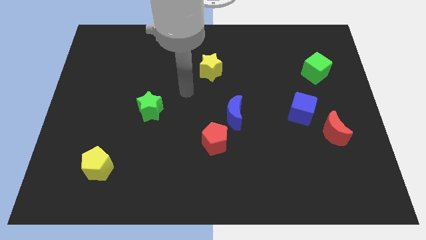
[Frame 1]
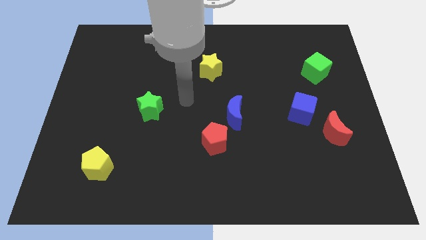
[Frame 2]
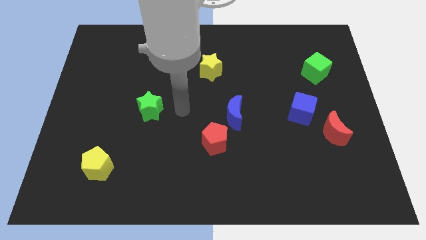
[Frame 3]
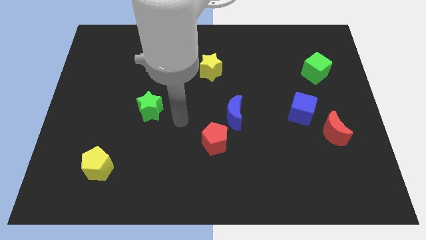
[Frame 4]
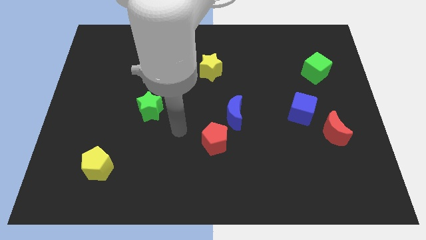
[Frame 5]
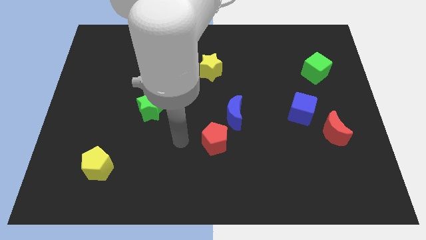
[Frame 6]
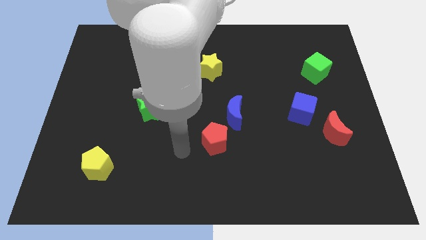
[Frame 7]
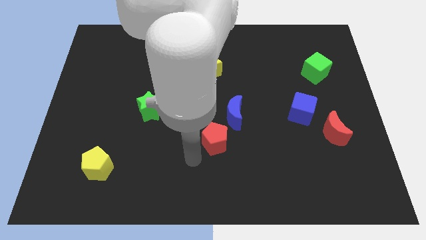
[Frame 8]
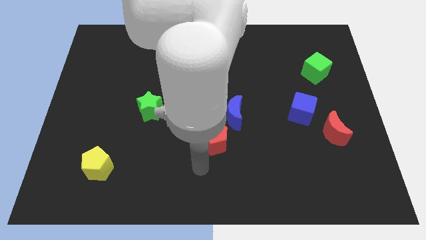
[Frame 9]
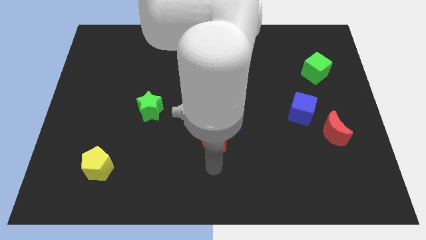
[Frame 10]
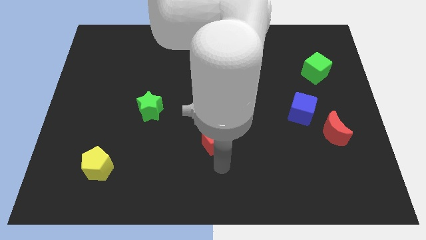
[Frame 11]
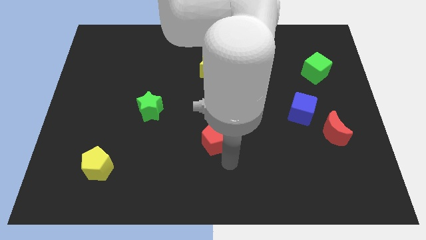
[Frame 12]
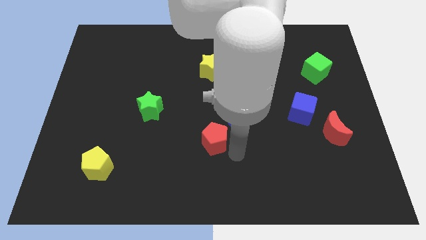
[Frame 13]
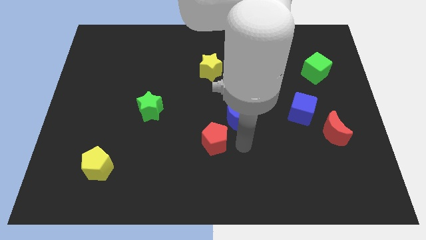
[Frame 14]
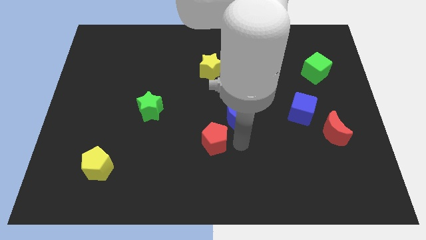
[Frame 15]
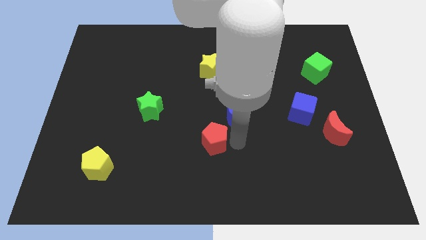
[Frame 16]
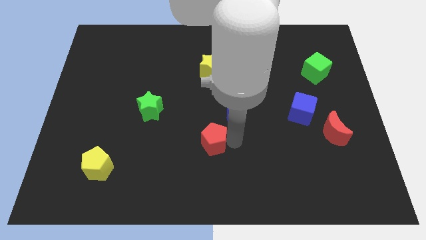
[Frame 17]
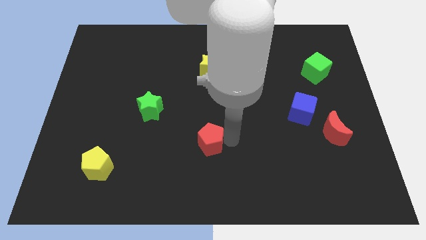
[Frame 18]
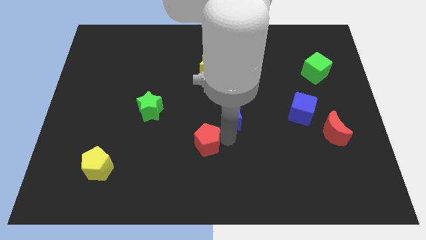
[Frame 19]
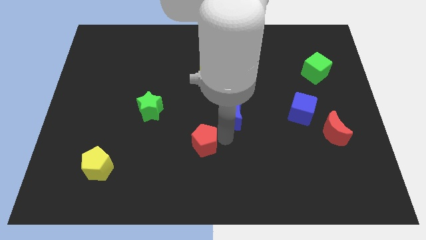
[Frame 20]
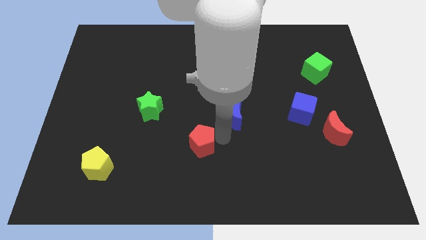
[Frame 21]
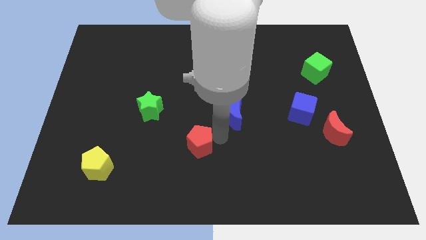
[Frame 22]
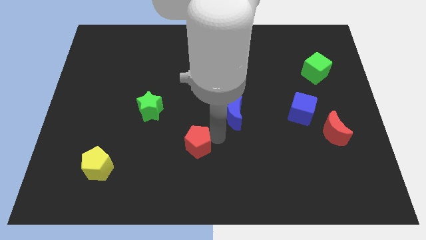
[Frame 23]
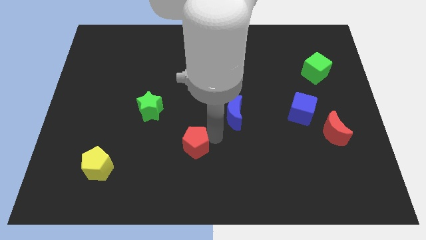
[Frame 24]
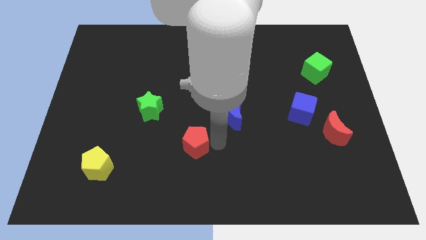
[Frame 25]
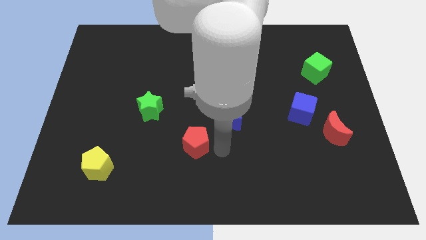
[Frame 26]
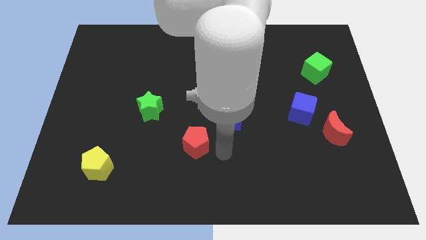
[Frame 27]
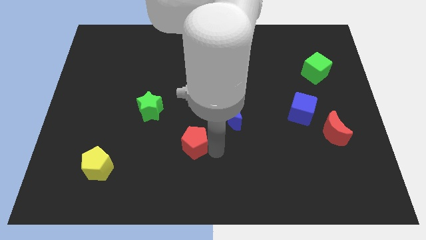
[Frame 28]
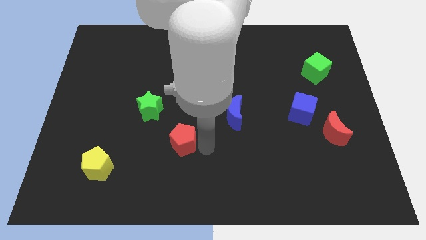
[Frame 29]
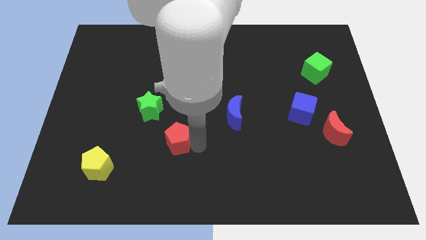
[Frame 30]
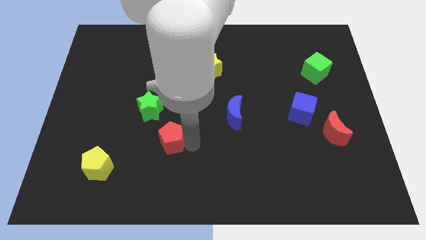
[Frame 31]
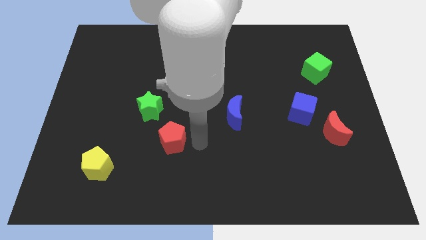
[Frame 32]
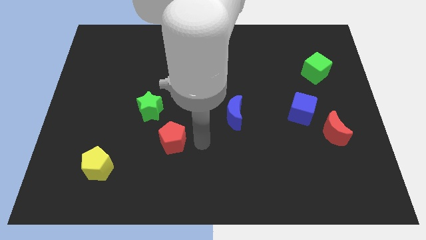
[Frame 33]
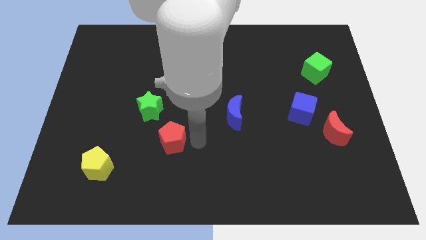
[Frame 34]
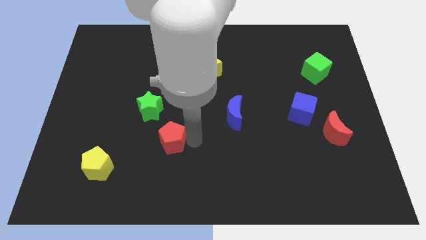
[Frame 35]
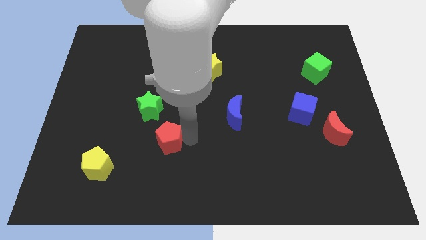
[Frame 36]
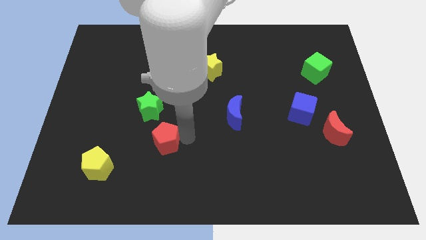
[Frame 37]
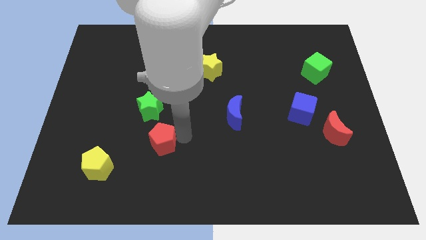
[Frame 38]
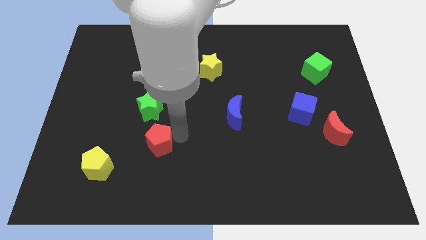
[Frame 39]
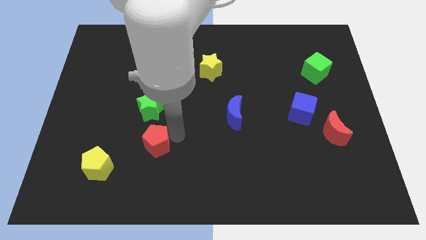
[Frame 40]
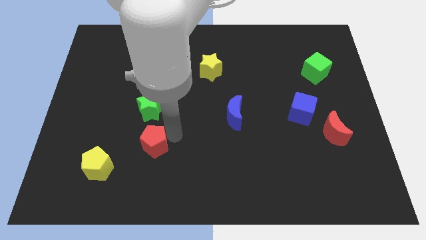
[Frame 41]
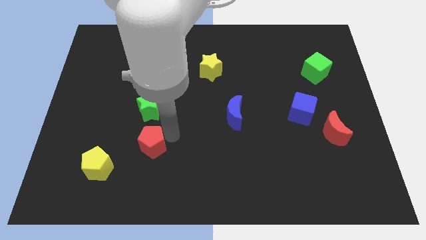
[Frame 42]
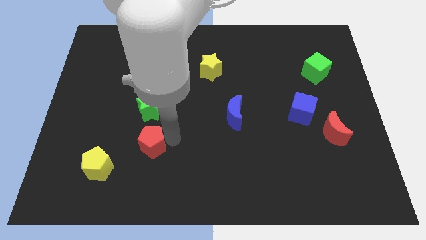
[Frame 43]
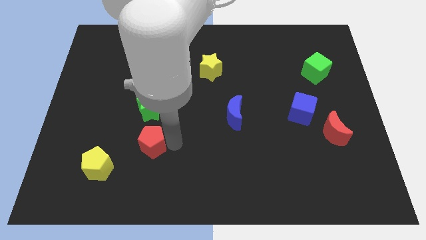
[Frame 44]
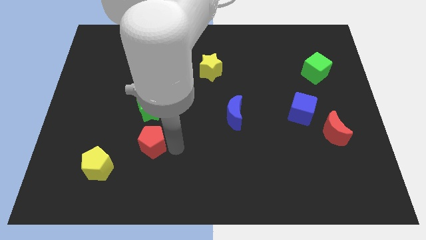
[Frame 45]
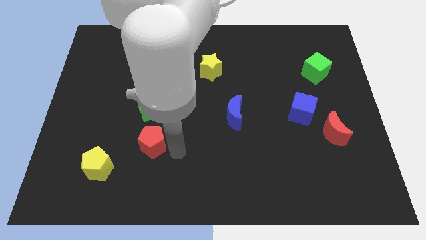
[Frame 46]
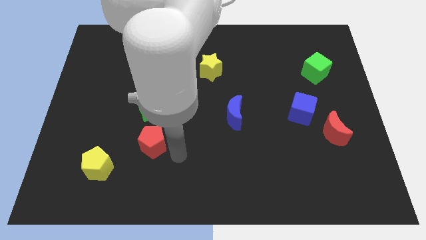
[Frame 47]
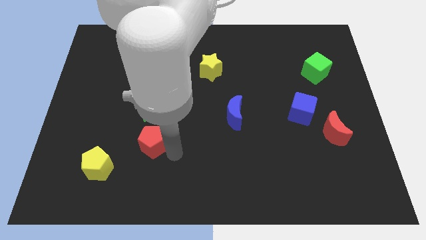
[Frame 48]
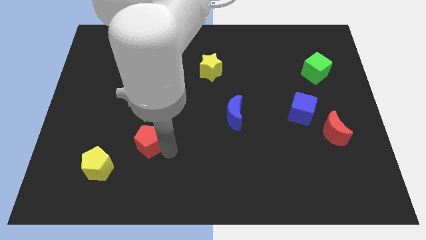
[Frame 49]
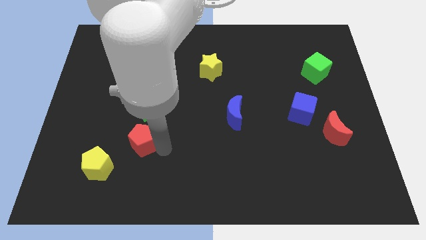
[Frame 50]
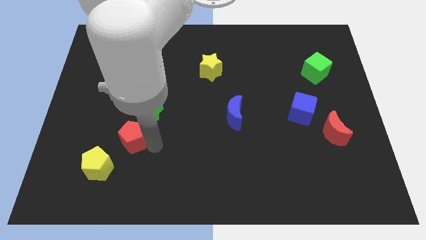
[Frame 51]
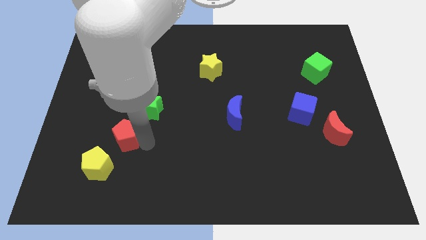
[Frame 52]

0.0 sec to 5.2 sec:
put the red pentagon to the top of the yellow pentagon

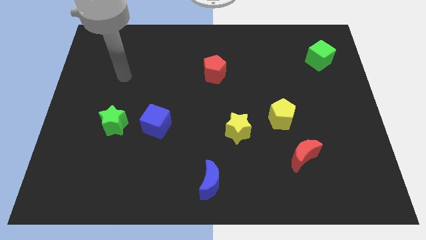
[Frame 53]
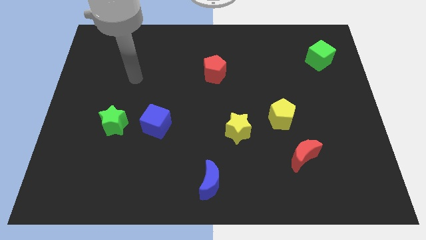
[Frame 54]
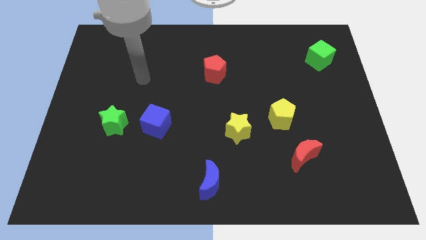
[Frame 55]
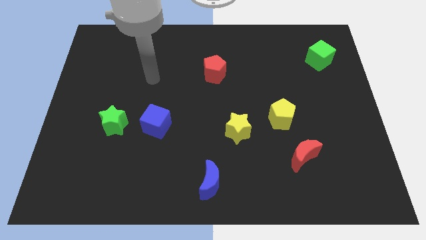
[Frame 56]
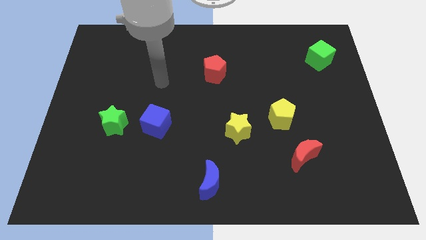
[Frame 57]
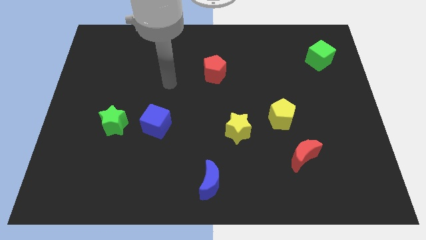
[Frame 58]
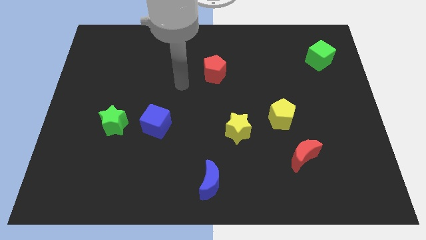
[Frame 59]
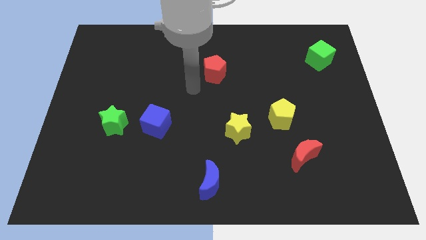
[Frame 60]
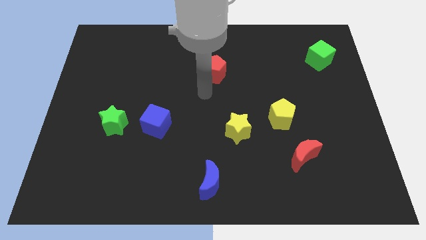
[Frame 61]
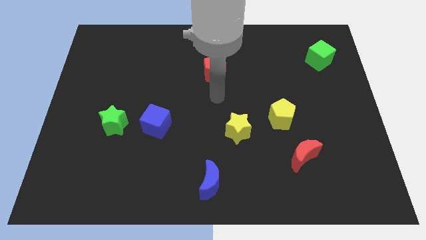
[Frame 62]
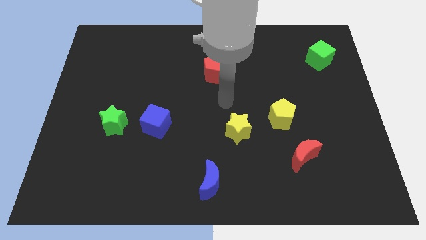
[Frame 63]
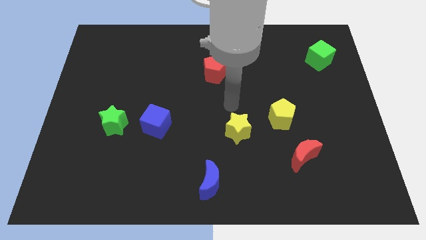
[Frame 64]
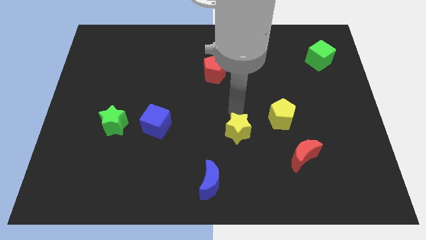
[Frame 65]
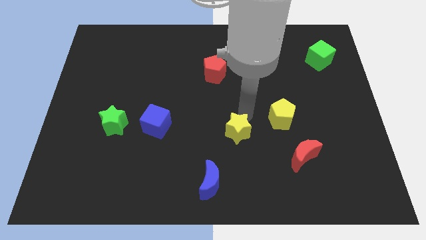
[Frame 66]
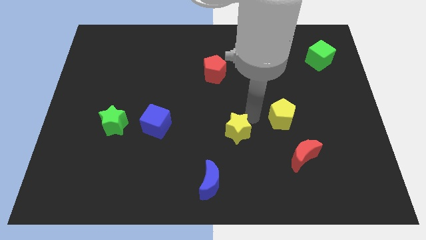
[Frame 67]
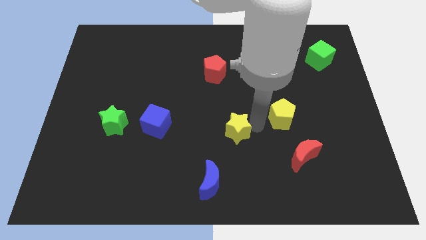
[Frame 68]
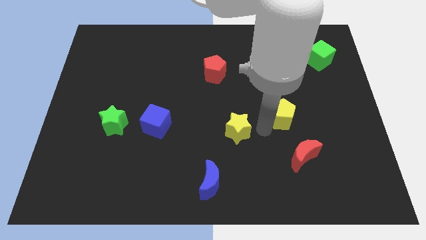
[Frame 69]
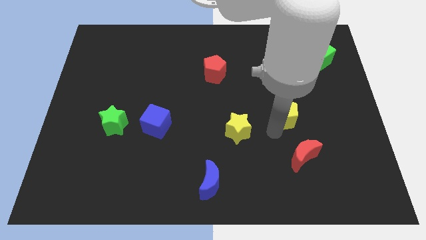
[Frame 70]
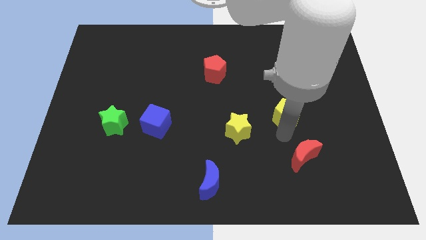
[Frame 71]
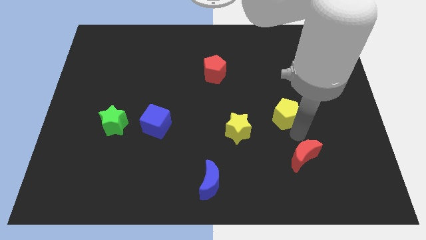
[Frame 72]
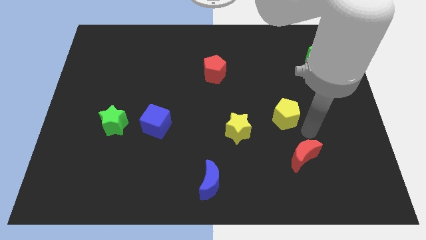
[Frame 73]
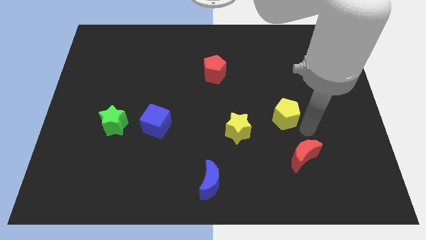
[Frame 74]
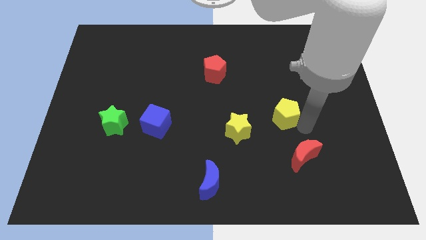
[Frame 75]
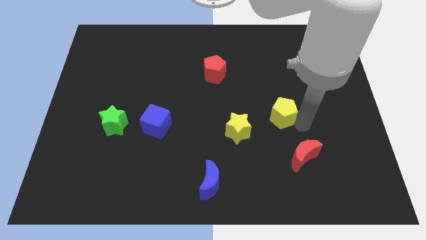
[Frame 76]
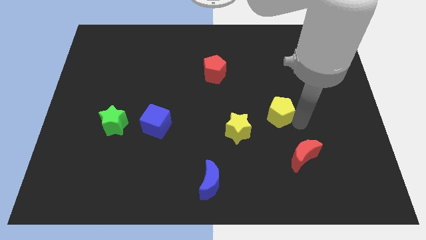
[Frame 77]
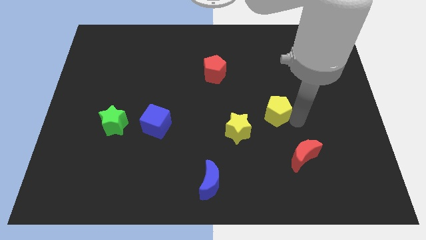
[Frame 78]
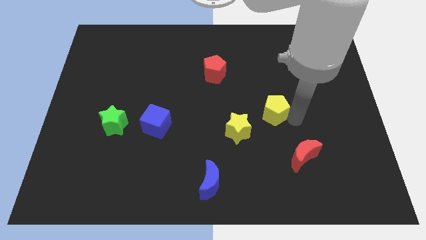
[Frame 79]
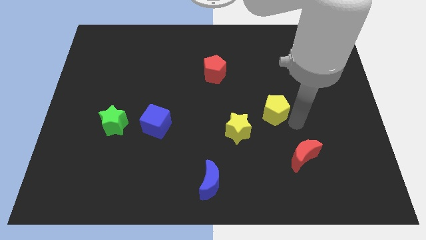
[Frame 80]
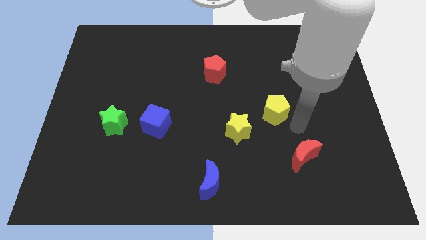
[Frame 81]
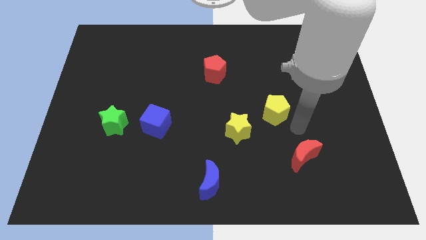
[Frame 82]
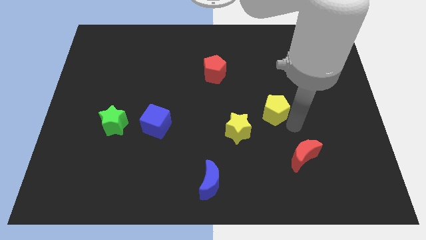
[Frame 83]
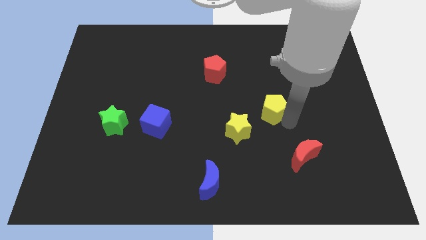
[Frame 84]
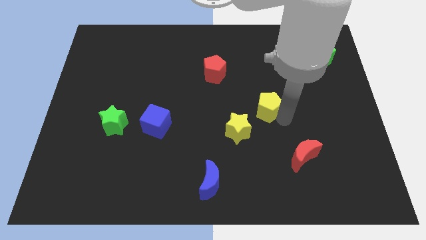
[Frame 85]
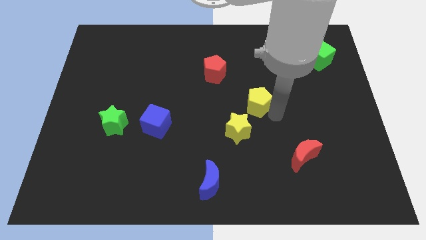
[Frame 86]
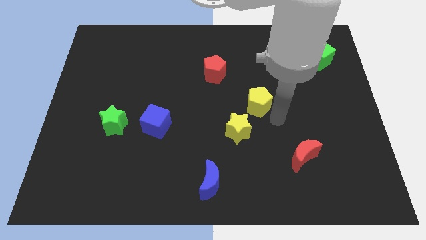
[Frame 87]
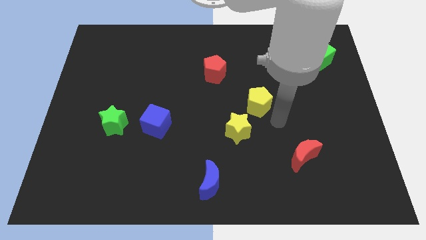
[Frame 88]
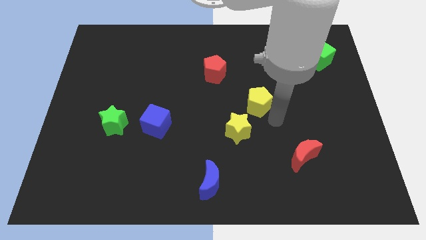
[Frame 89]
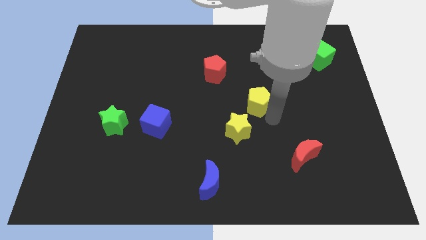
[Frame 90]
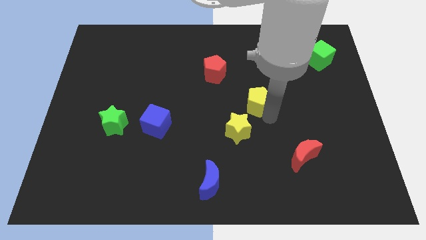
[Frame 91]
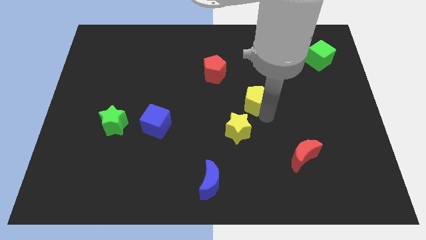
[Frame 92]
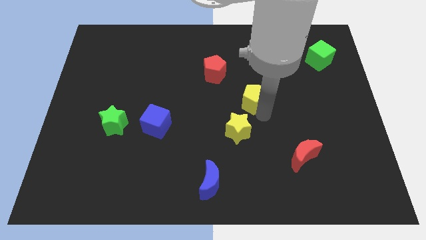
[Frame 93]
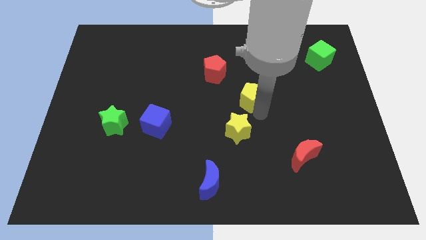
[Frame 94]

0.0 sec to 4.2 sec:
push the yellow pentagon to the bottom right of the red pentagon
